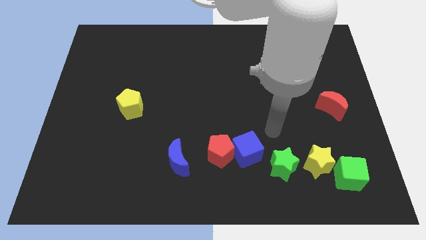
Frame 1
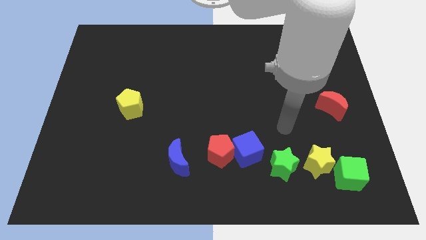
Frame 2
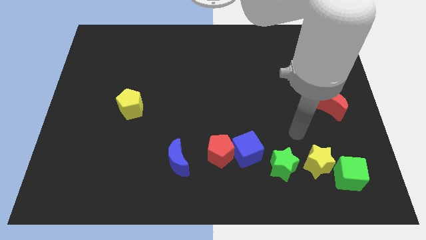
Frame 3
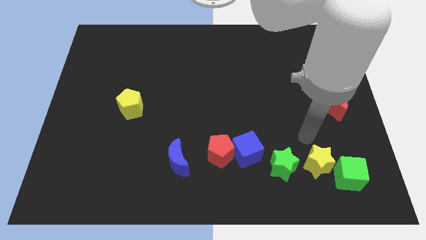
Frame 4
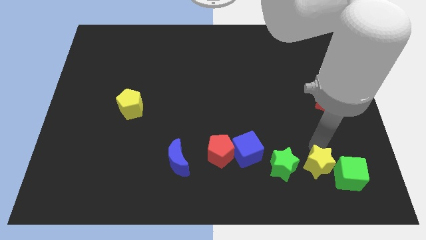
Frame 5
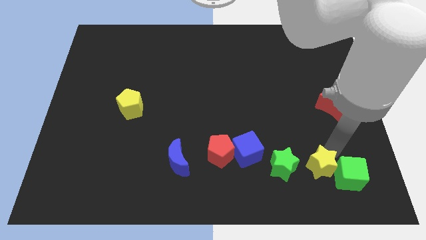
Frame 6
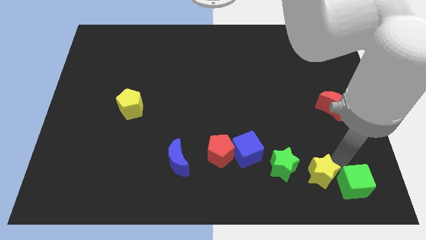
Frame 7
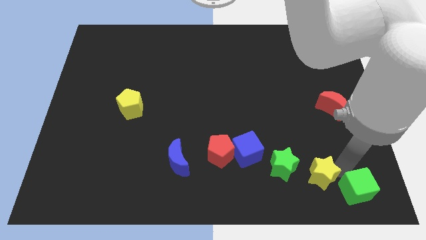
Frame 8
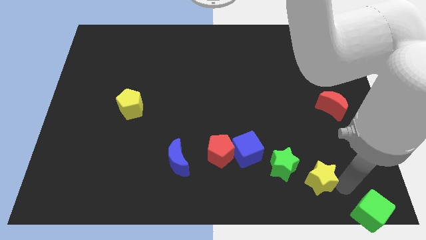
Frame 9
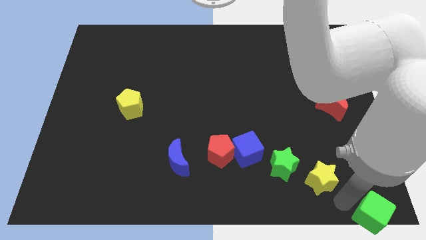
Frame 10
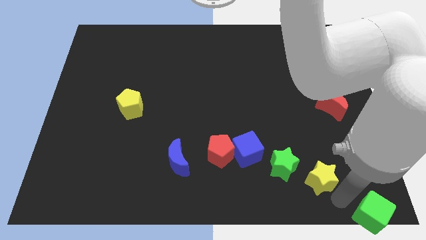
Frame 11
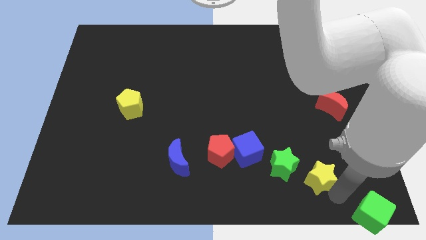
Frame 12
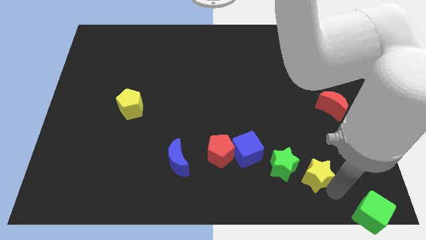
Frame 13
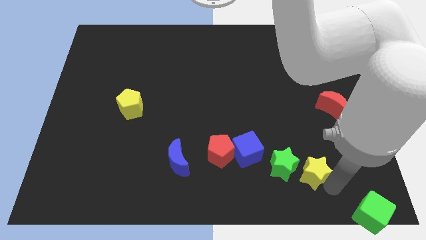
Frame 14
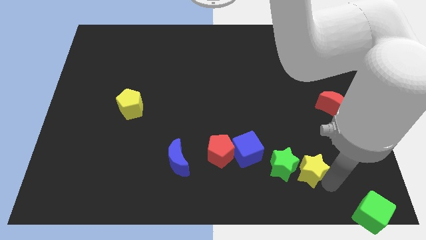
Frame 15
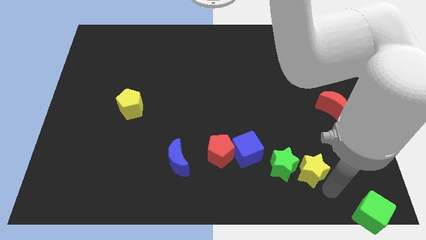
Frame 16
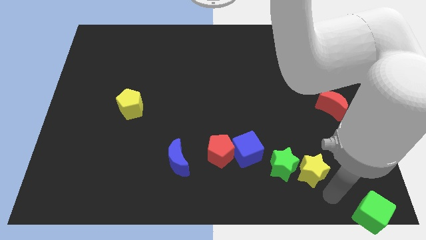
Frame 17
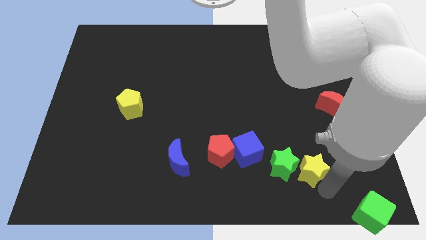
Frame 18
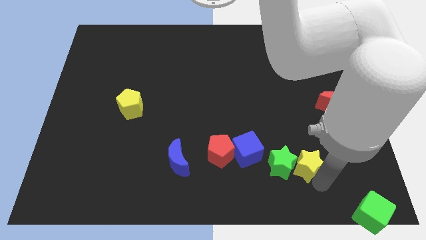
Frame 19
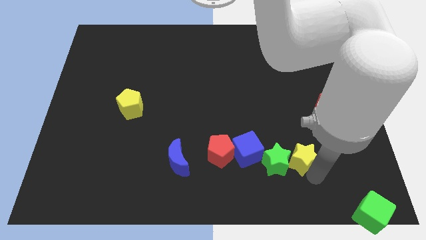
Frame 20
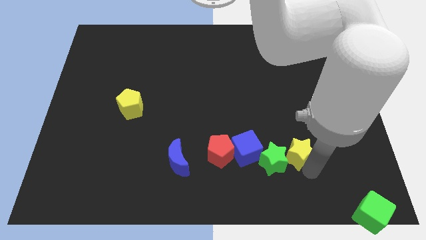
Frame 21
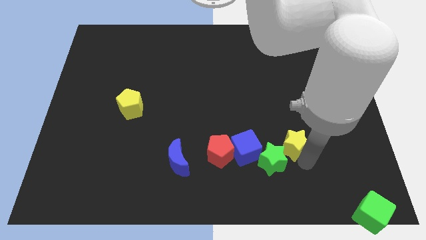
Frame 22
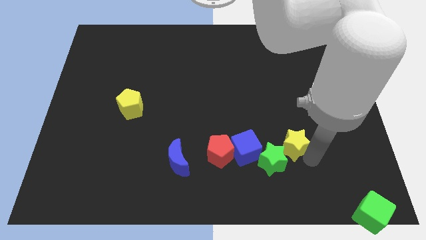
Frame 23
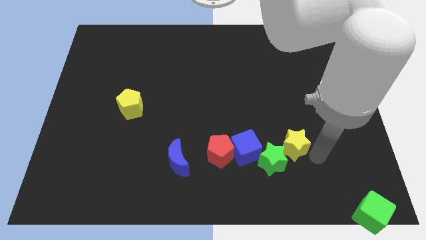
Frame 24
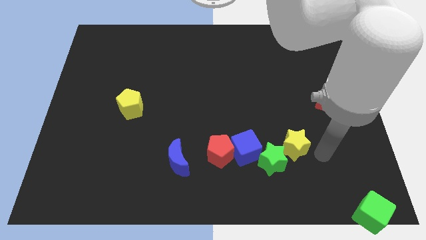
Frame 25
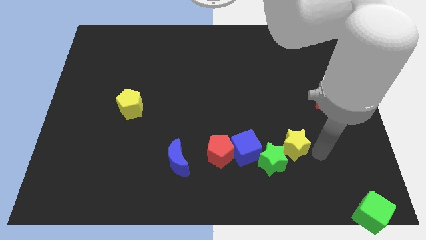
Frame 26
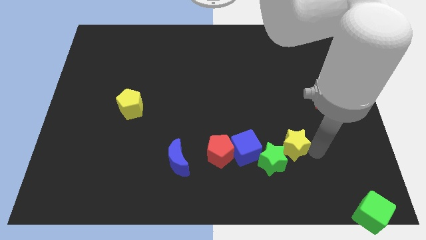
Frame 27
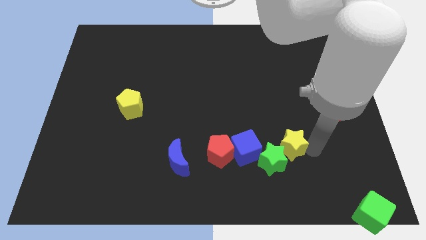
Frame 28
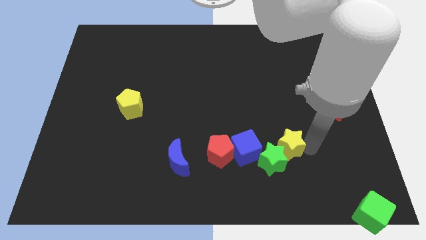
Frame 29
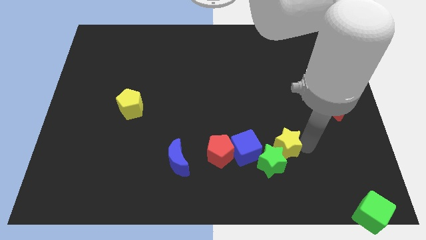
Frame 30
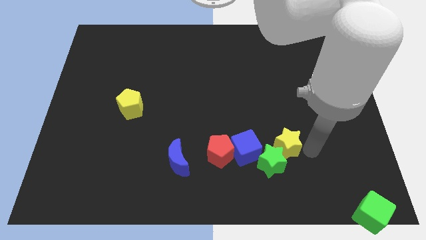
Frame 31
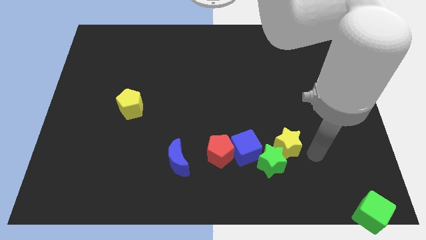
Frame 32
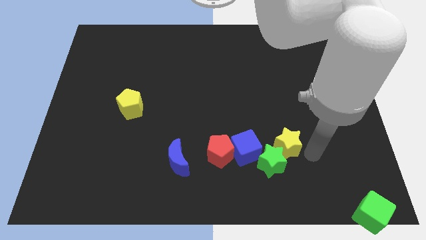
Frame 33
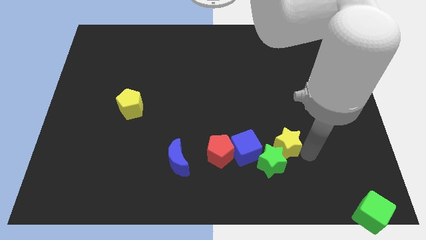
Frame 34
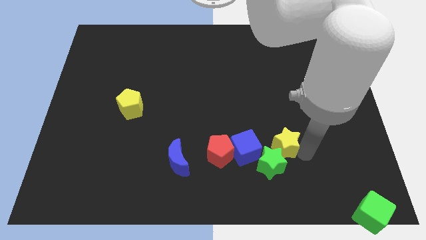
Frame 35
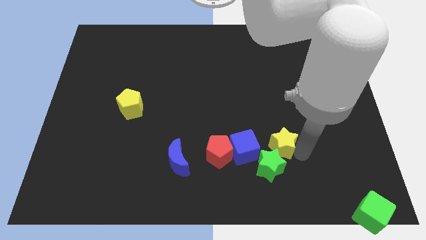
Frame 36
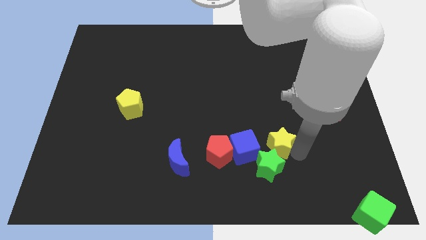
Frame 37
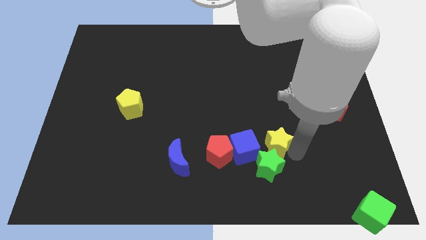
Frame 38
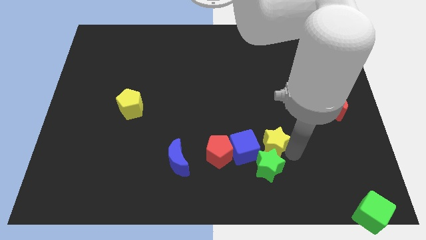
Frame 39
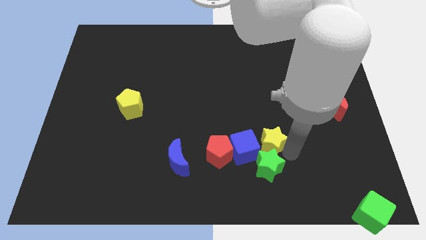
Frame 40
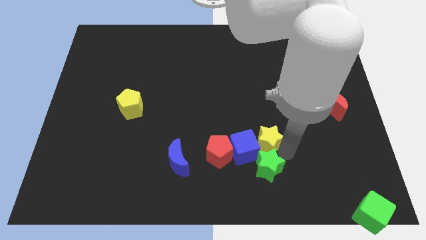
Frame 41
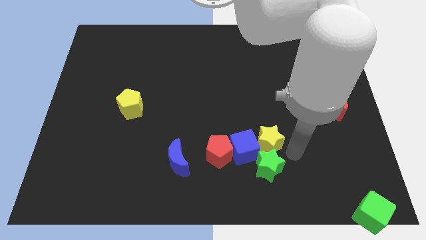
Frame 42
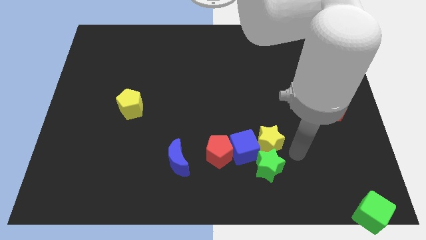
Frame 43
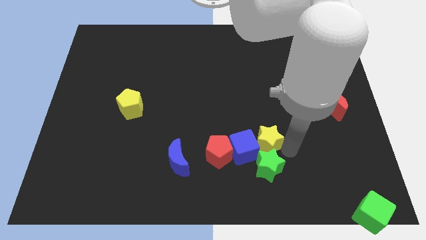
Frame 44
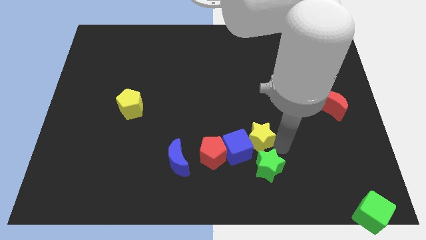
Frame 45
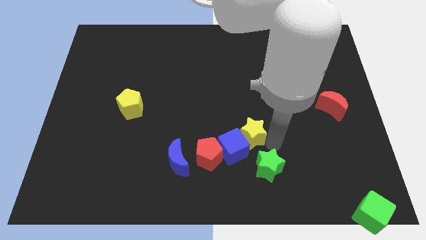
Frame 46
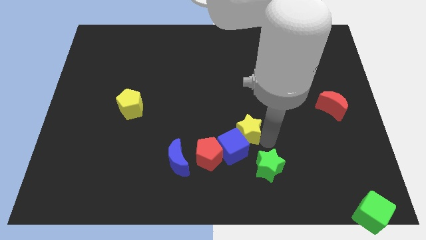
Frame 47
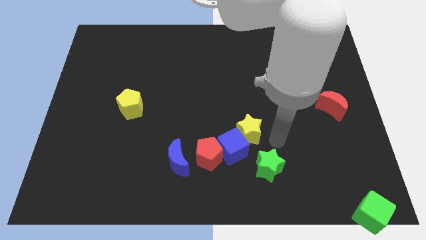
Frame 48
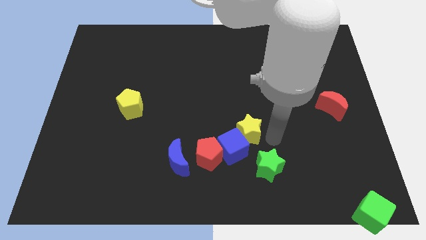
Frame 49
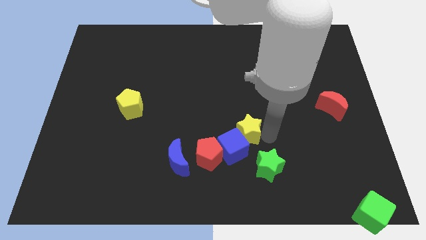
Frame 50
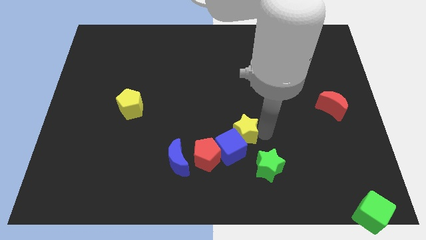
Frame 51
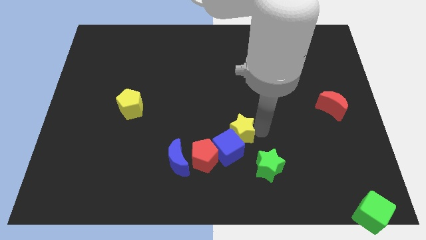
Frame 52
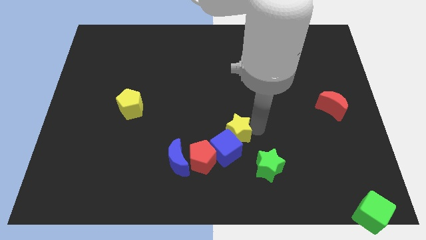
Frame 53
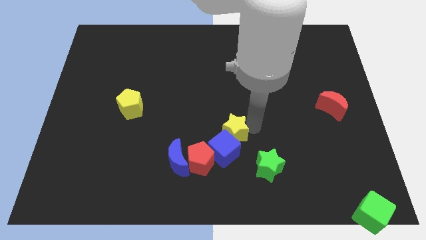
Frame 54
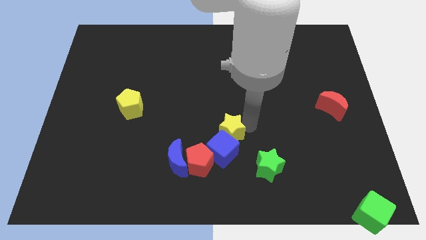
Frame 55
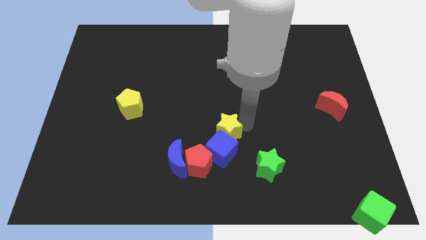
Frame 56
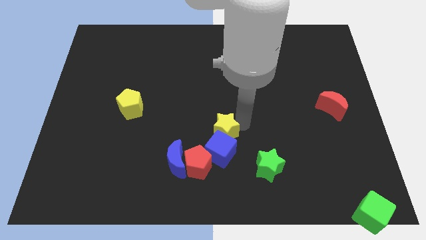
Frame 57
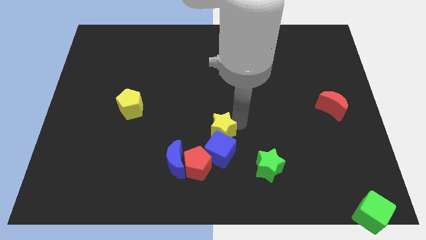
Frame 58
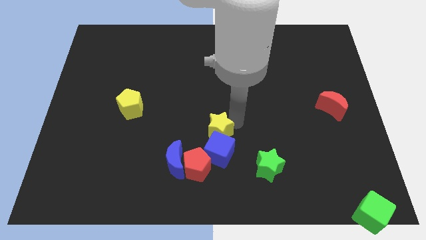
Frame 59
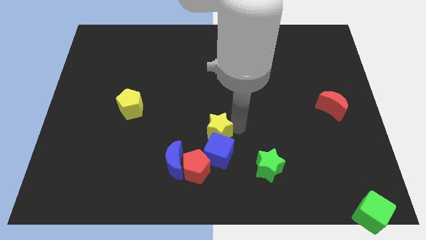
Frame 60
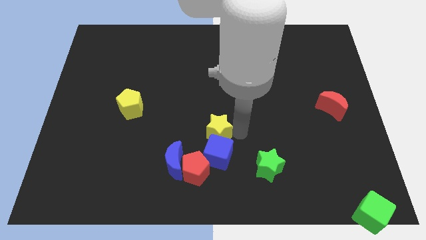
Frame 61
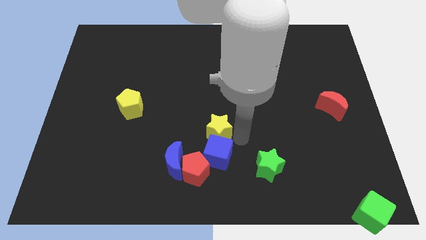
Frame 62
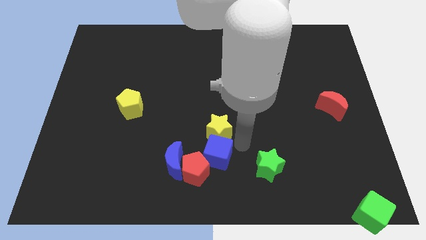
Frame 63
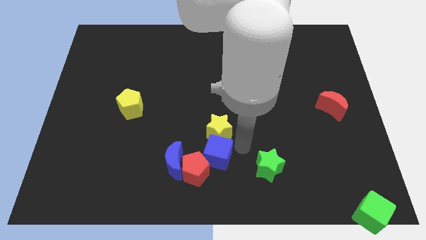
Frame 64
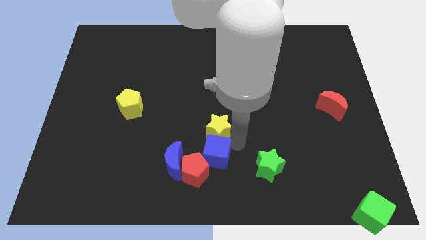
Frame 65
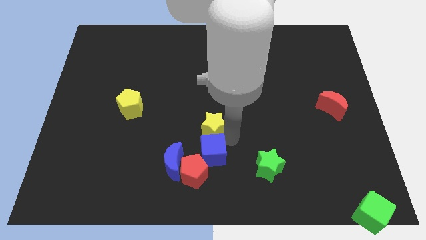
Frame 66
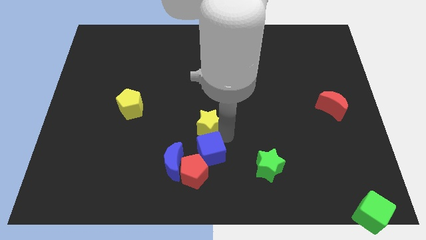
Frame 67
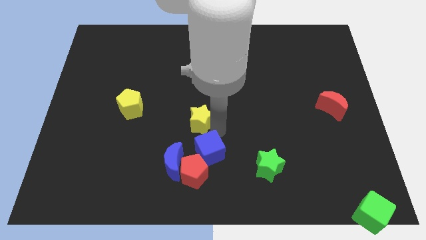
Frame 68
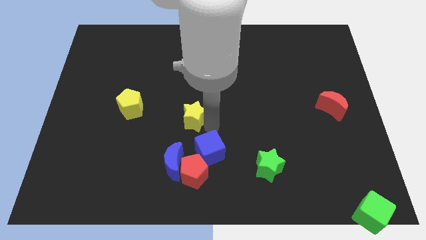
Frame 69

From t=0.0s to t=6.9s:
slide the yellow star to the right of the yellow pentagon
